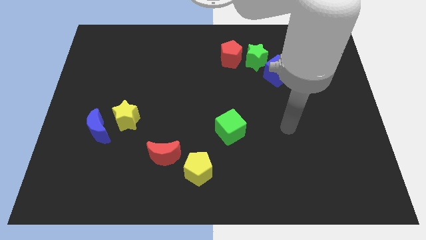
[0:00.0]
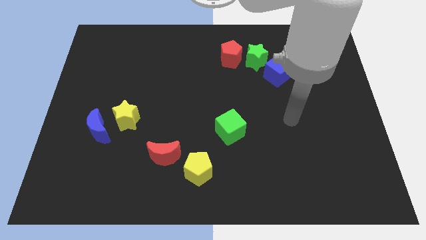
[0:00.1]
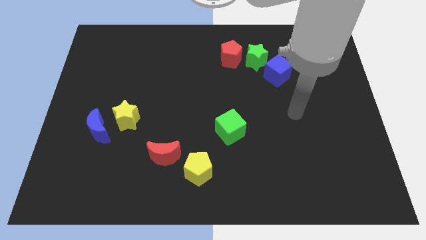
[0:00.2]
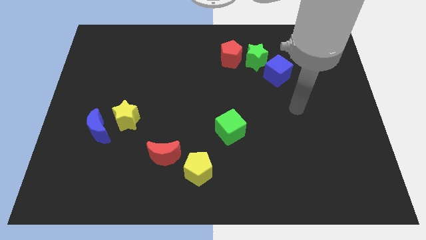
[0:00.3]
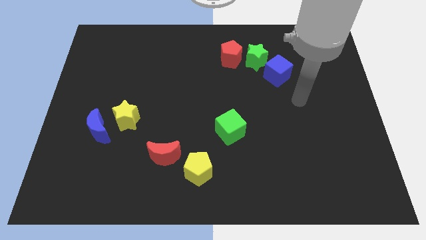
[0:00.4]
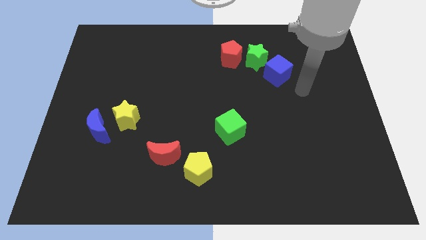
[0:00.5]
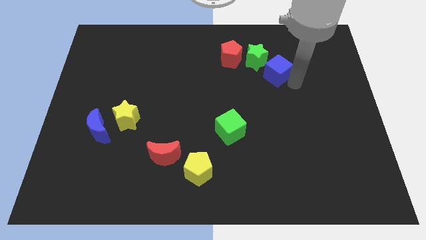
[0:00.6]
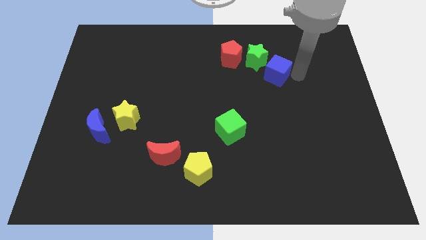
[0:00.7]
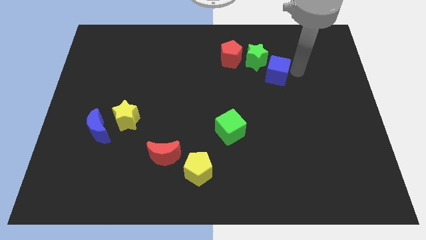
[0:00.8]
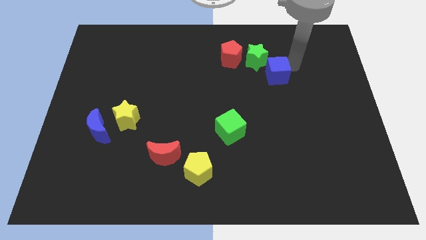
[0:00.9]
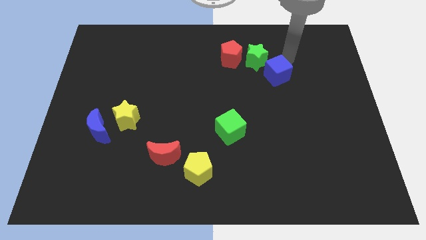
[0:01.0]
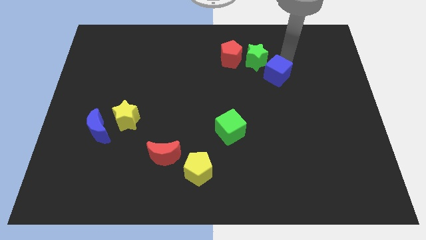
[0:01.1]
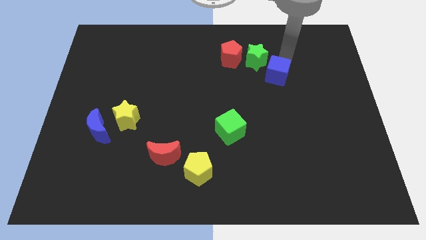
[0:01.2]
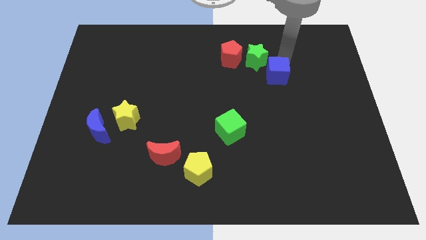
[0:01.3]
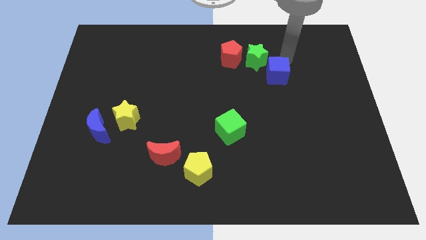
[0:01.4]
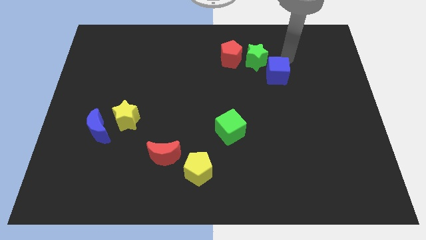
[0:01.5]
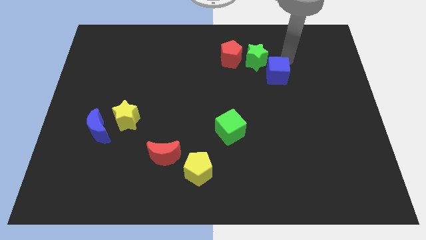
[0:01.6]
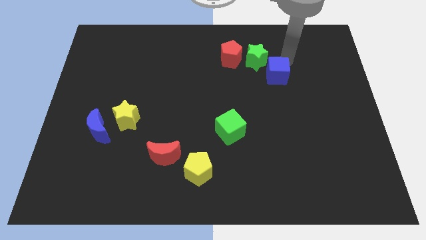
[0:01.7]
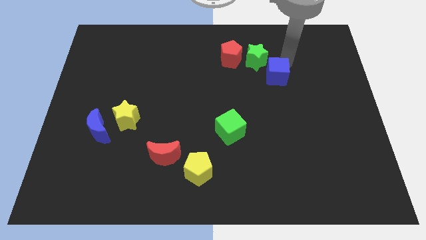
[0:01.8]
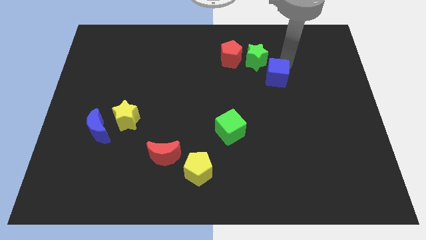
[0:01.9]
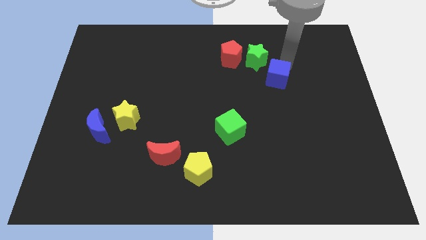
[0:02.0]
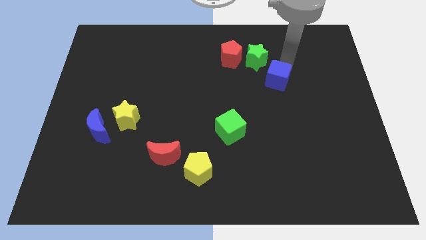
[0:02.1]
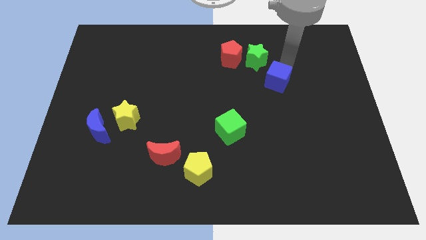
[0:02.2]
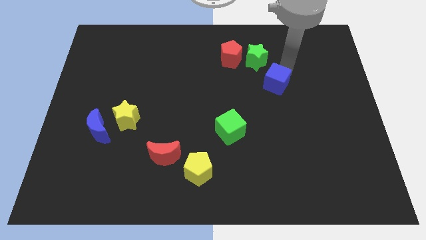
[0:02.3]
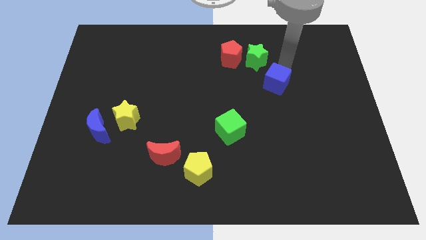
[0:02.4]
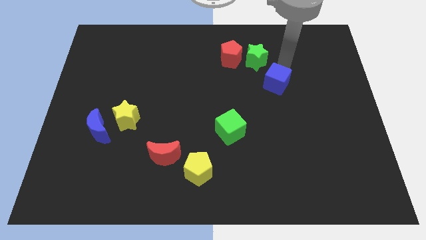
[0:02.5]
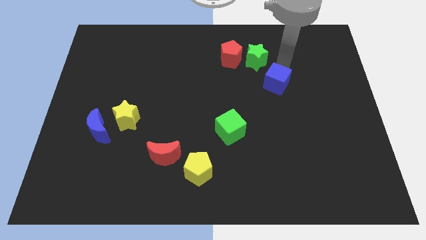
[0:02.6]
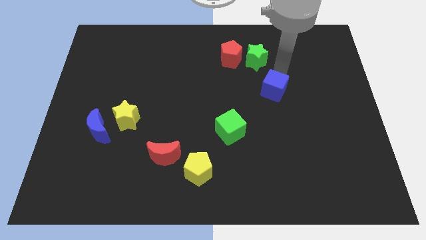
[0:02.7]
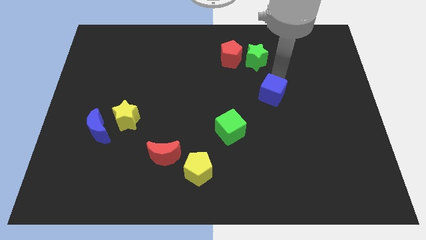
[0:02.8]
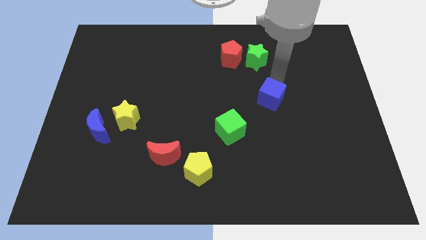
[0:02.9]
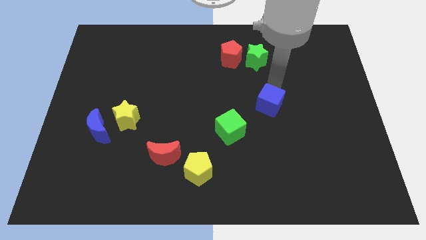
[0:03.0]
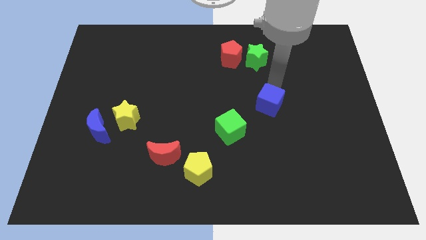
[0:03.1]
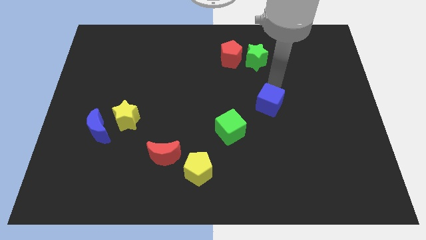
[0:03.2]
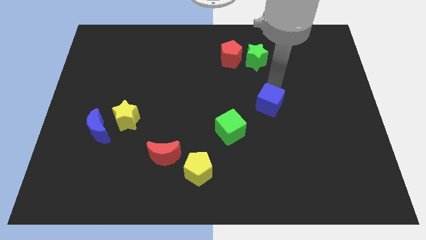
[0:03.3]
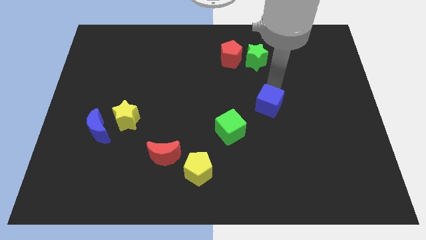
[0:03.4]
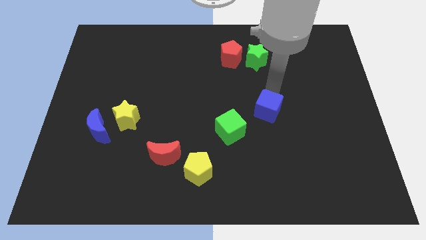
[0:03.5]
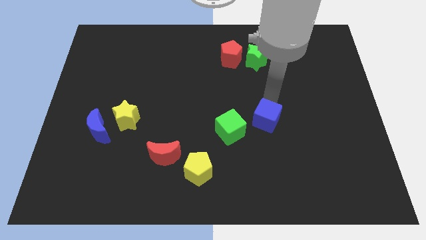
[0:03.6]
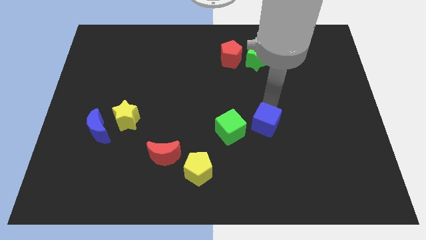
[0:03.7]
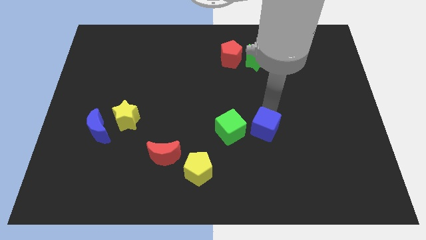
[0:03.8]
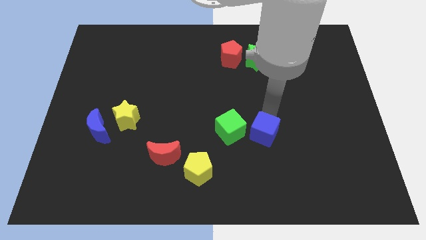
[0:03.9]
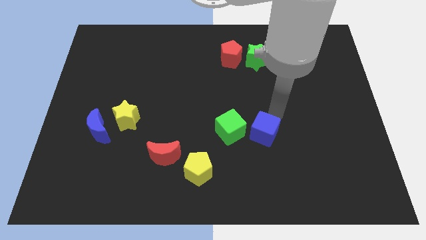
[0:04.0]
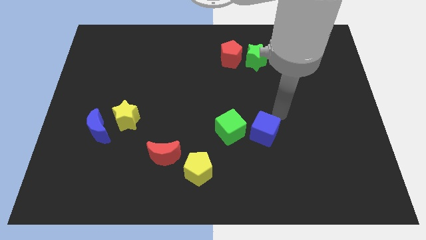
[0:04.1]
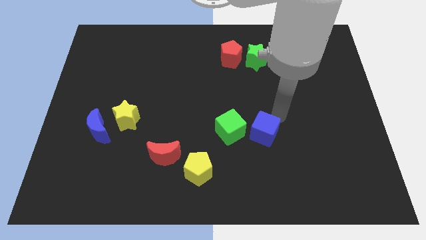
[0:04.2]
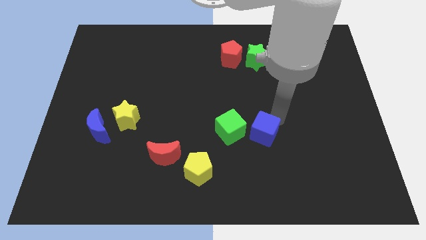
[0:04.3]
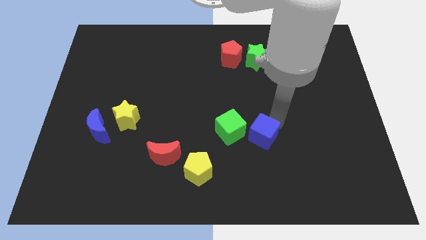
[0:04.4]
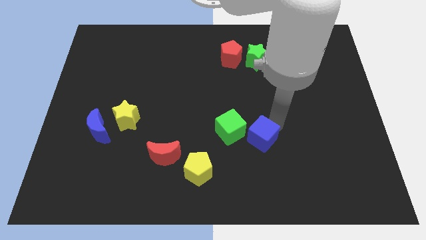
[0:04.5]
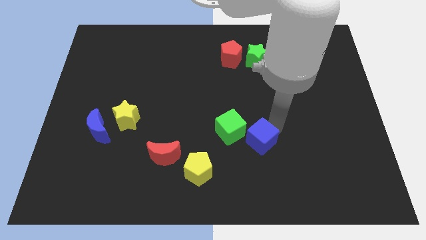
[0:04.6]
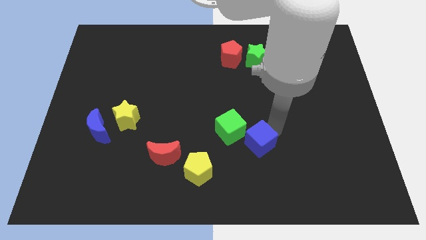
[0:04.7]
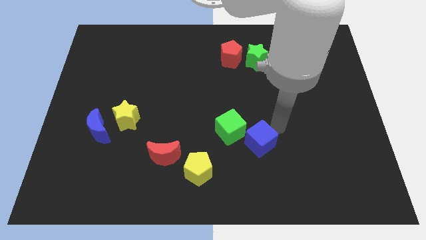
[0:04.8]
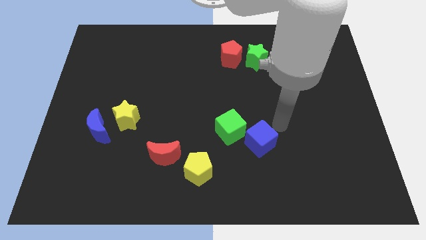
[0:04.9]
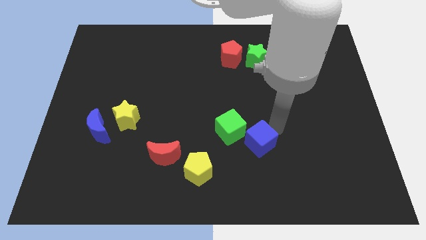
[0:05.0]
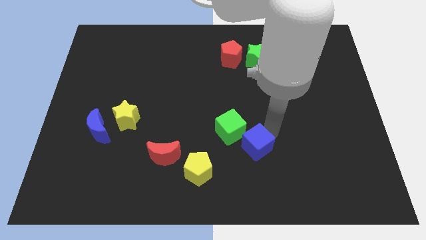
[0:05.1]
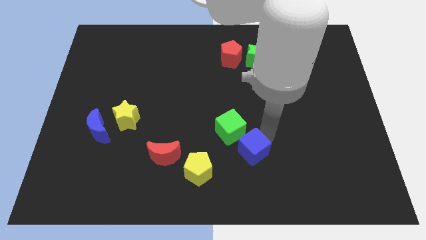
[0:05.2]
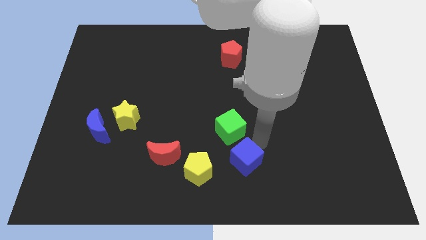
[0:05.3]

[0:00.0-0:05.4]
move the blue cube to the bottom side
